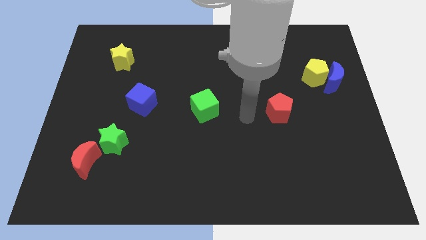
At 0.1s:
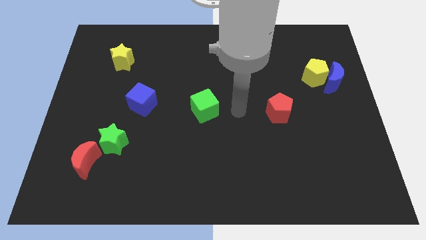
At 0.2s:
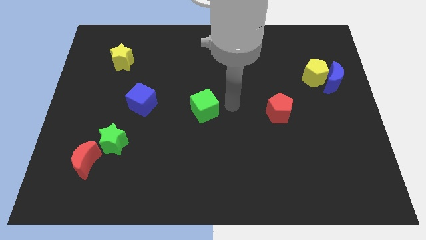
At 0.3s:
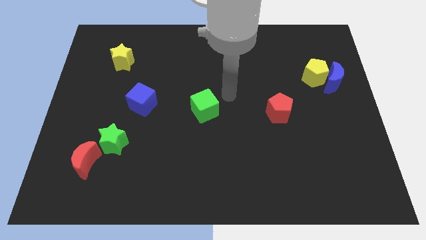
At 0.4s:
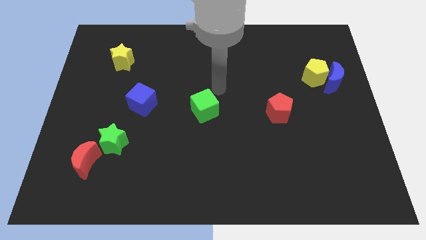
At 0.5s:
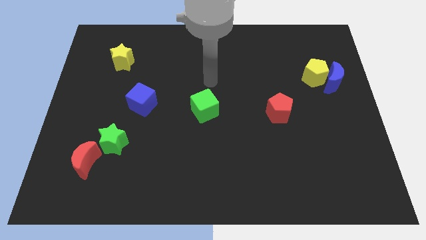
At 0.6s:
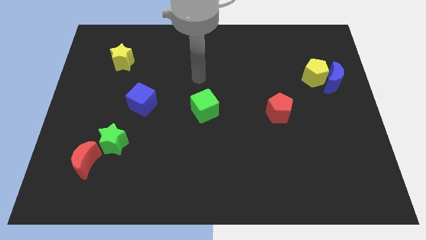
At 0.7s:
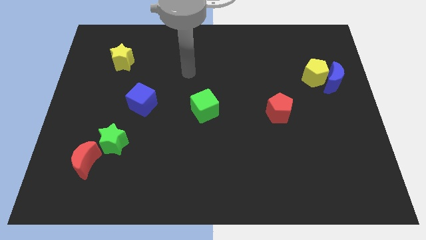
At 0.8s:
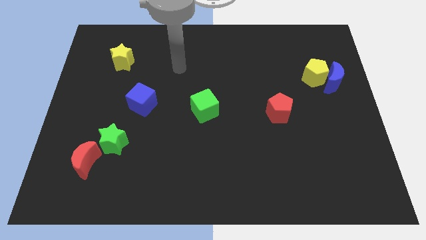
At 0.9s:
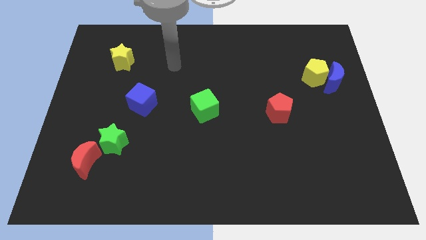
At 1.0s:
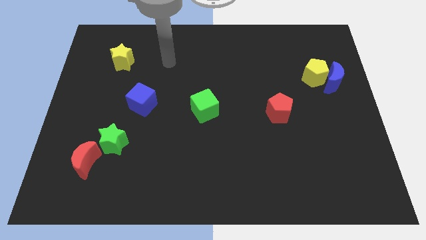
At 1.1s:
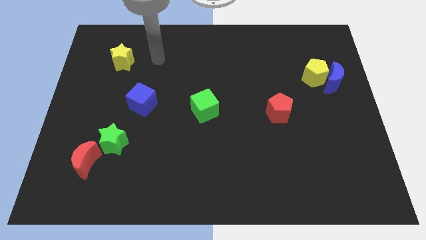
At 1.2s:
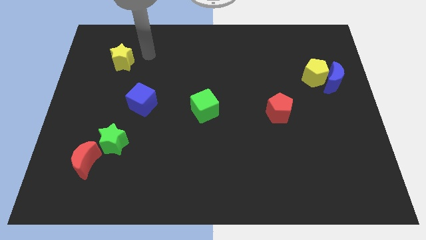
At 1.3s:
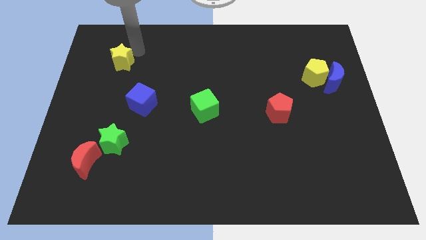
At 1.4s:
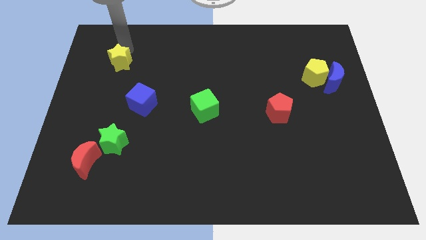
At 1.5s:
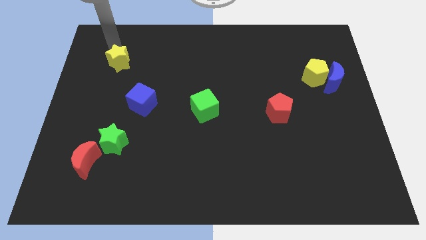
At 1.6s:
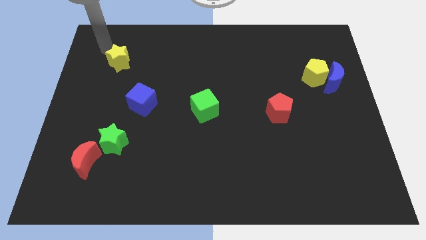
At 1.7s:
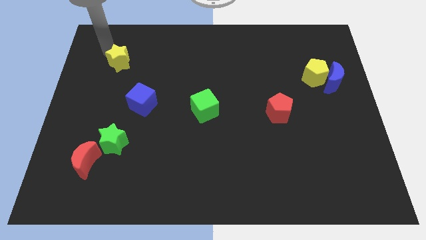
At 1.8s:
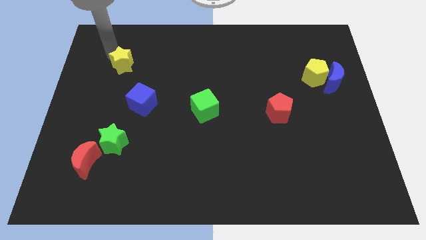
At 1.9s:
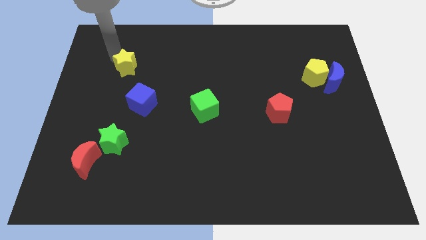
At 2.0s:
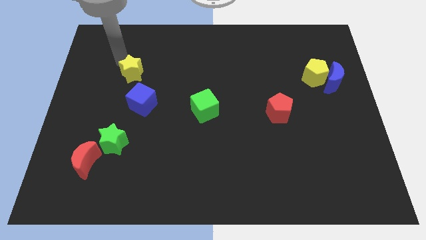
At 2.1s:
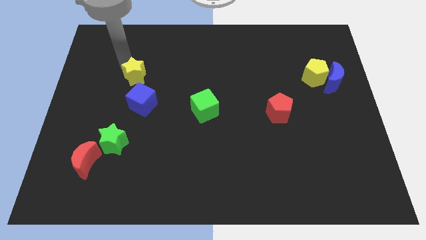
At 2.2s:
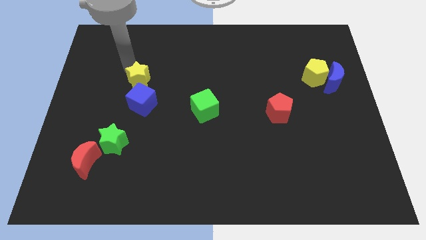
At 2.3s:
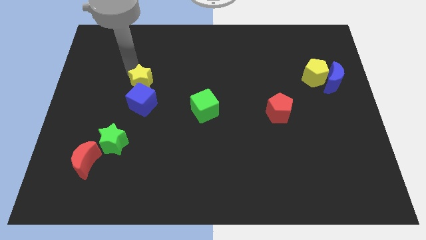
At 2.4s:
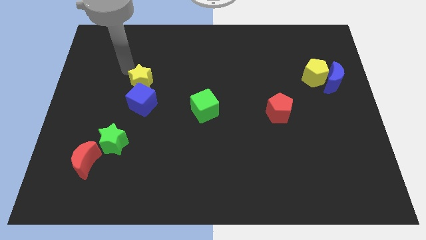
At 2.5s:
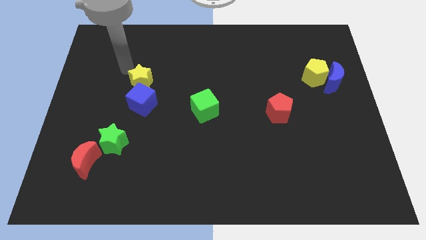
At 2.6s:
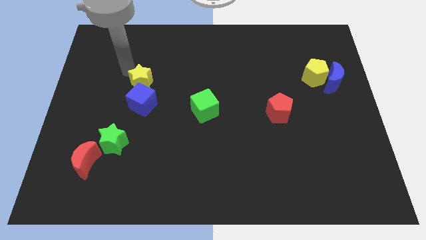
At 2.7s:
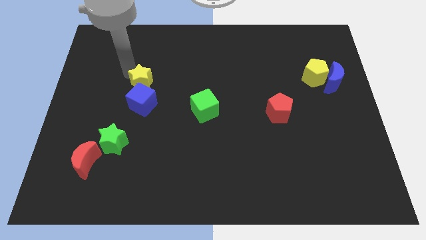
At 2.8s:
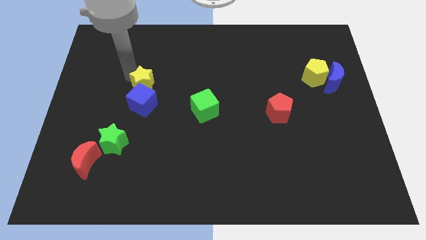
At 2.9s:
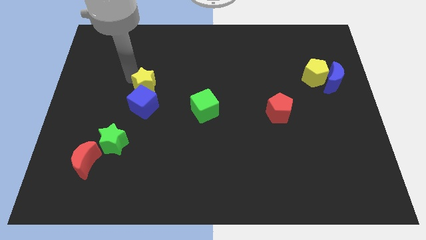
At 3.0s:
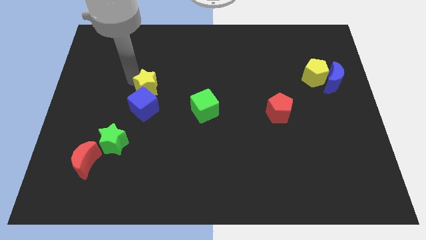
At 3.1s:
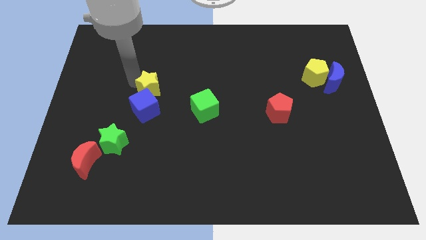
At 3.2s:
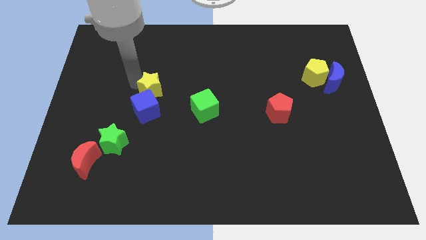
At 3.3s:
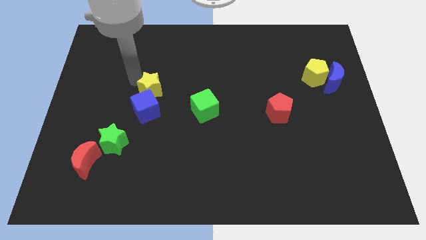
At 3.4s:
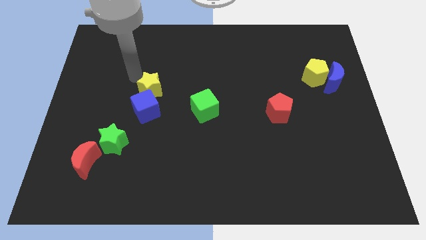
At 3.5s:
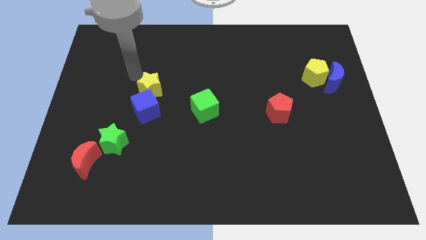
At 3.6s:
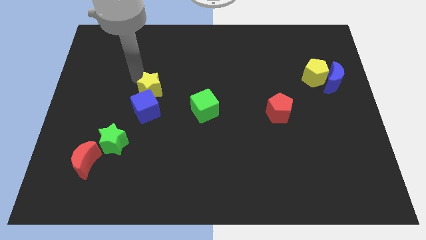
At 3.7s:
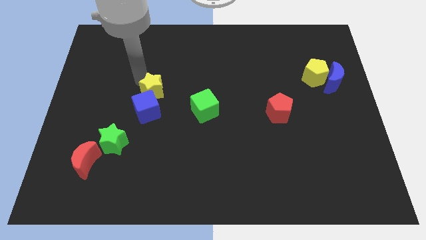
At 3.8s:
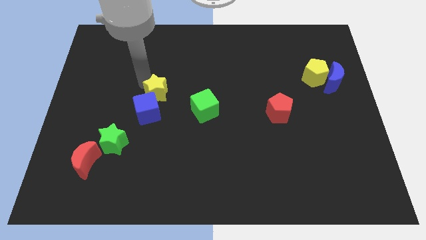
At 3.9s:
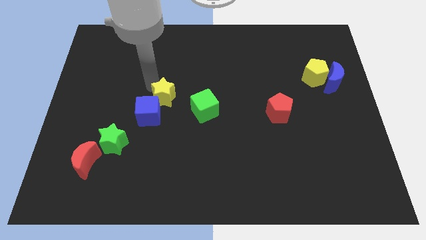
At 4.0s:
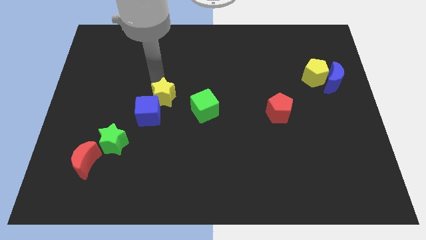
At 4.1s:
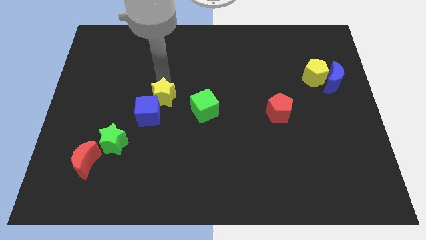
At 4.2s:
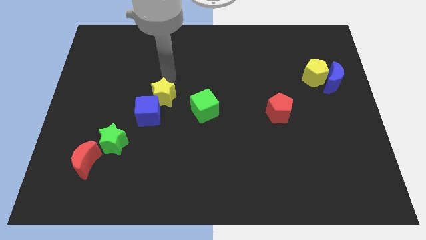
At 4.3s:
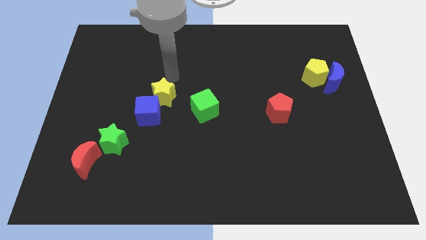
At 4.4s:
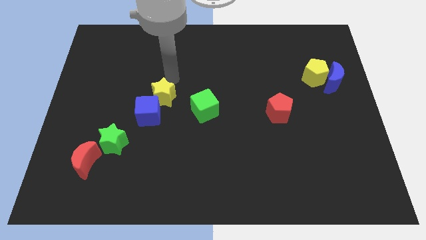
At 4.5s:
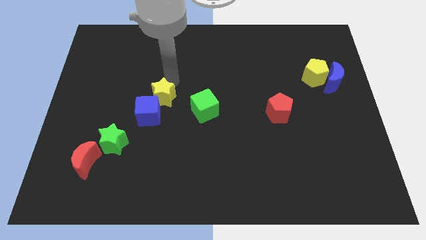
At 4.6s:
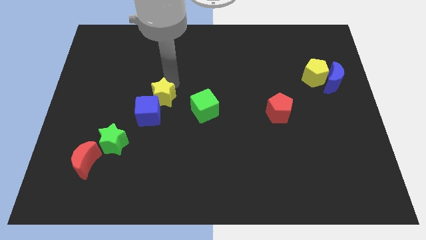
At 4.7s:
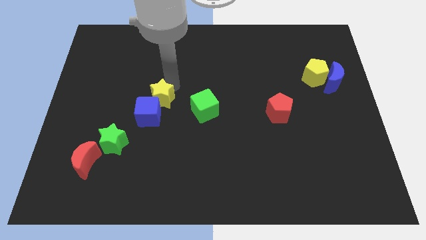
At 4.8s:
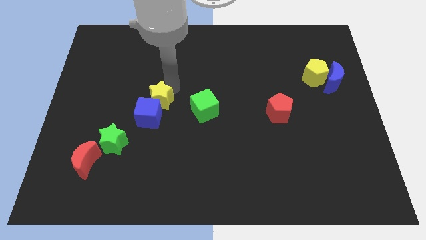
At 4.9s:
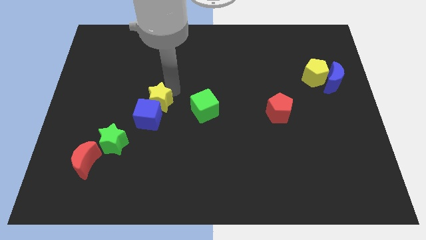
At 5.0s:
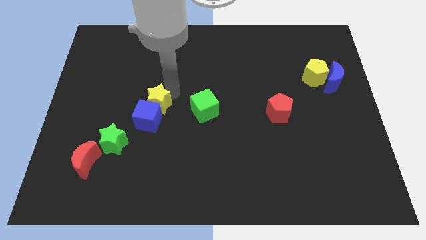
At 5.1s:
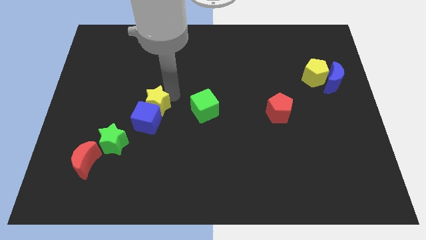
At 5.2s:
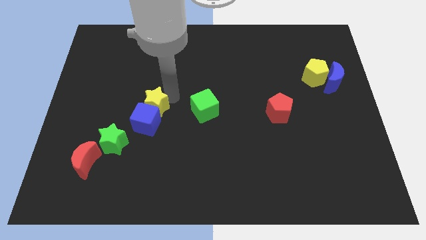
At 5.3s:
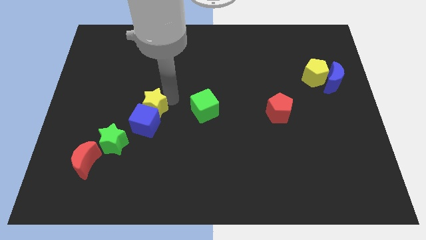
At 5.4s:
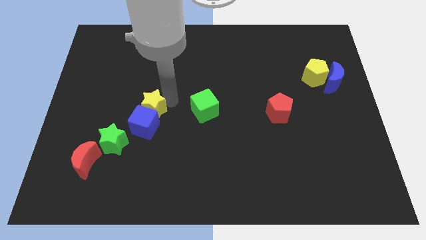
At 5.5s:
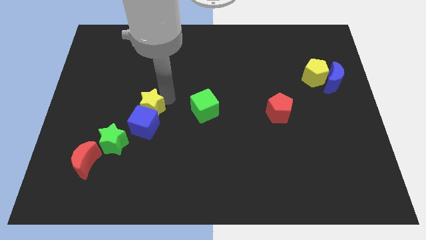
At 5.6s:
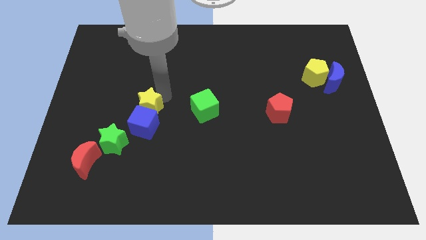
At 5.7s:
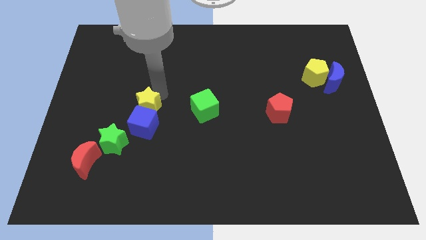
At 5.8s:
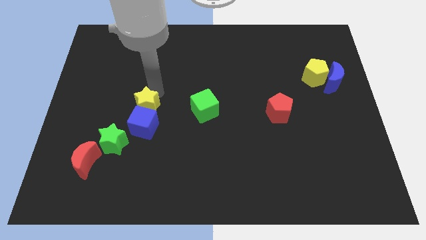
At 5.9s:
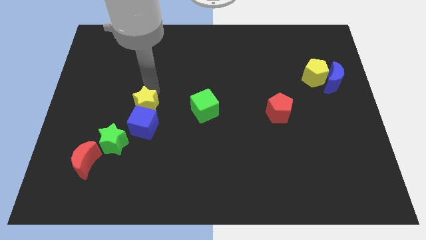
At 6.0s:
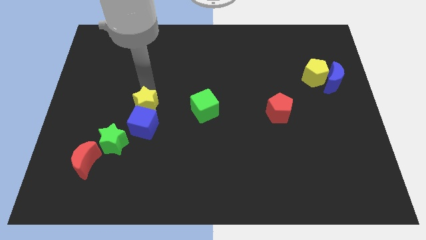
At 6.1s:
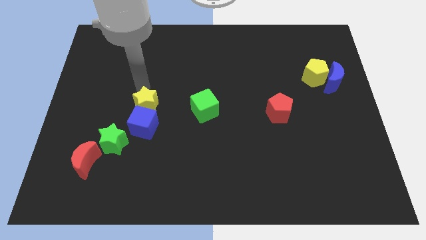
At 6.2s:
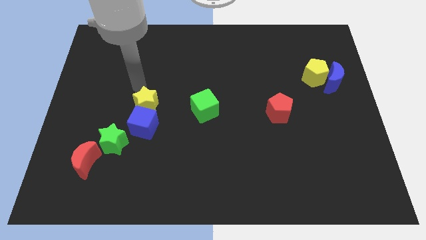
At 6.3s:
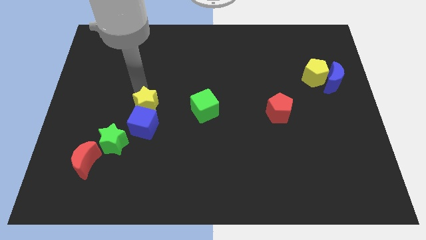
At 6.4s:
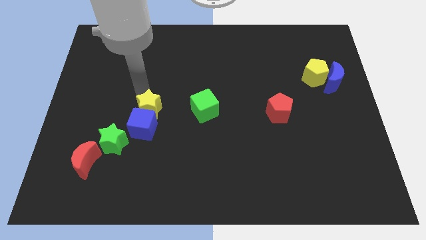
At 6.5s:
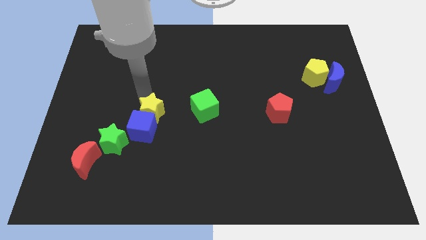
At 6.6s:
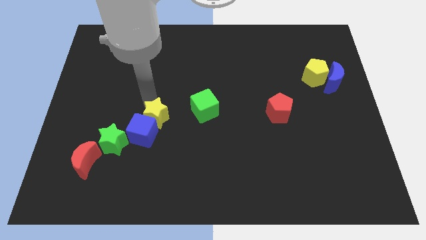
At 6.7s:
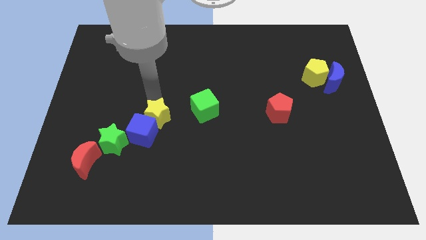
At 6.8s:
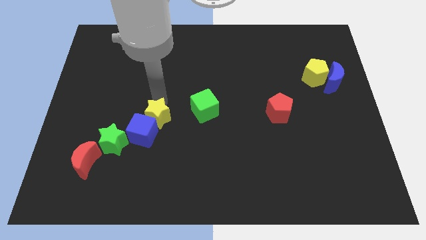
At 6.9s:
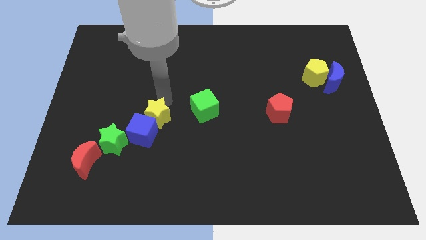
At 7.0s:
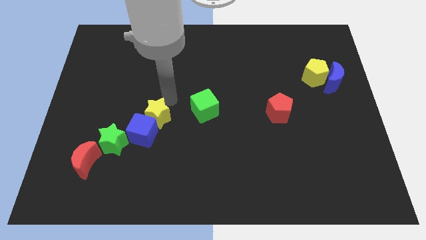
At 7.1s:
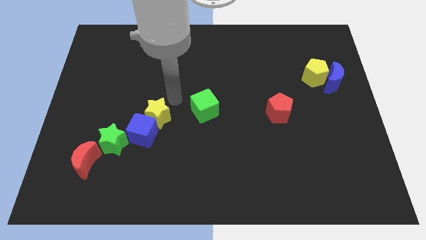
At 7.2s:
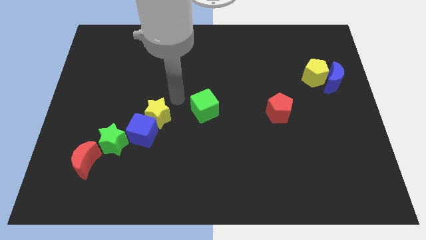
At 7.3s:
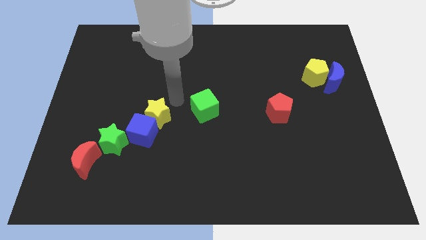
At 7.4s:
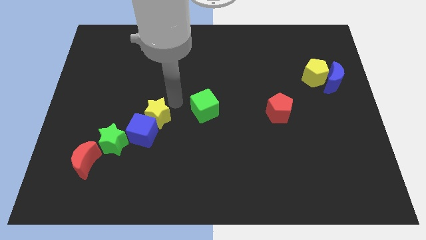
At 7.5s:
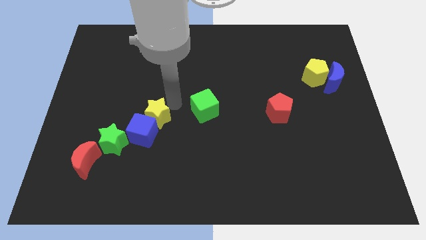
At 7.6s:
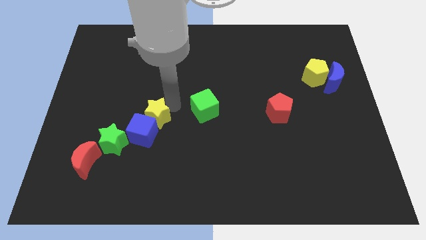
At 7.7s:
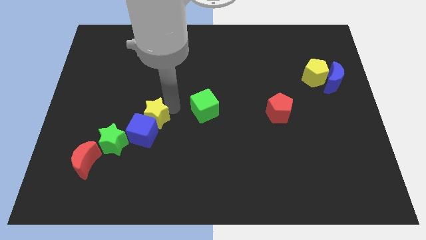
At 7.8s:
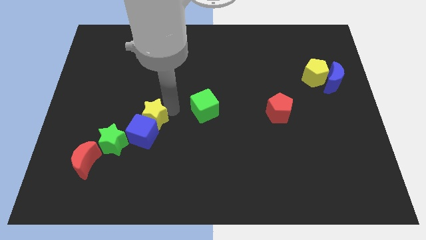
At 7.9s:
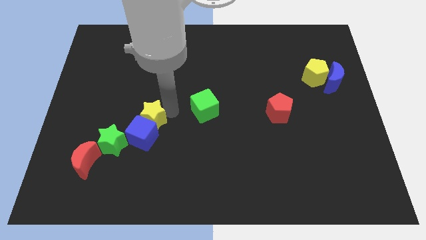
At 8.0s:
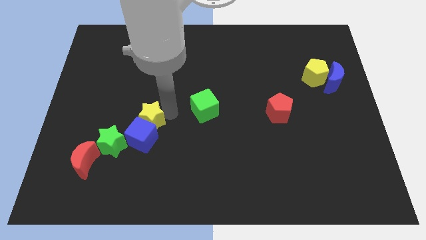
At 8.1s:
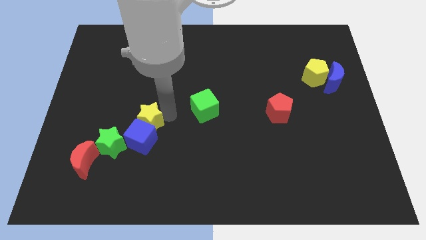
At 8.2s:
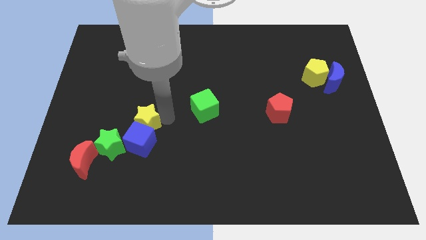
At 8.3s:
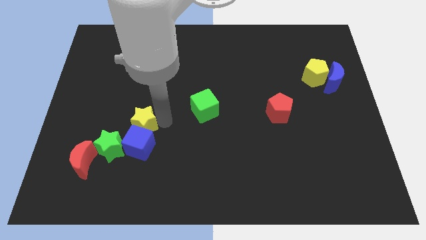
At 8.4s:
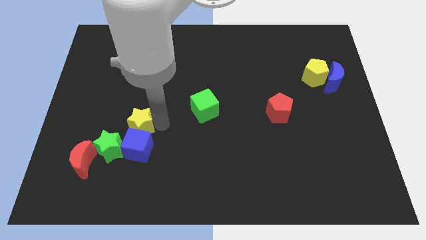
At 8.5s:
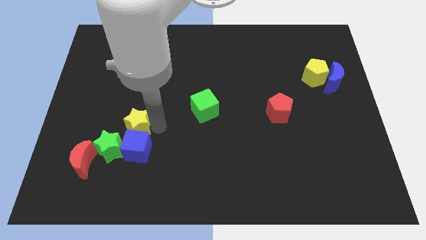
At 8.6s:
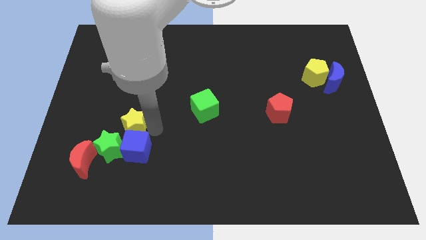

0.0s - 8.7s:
move the yellow star downwards
